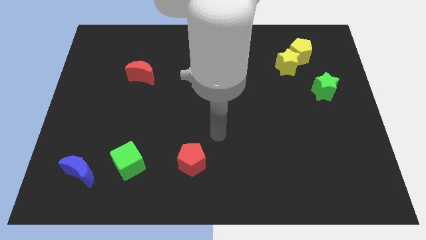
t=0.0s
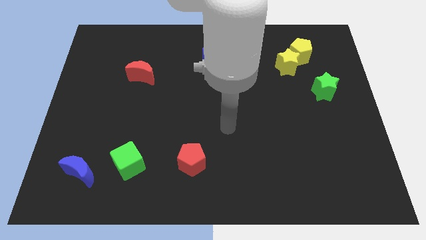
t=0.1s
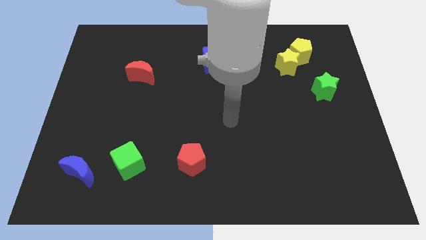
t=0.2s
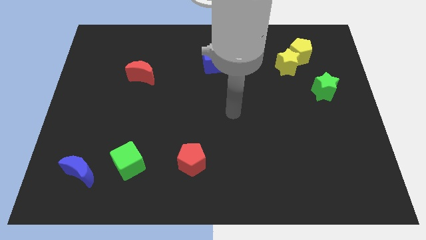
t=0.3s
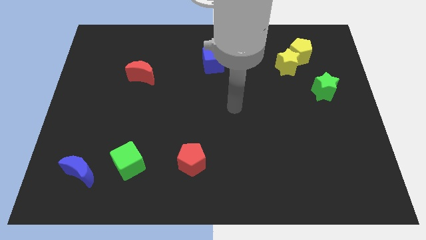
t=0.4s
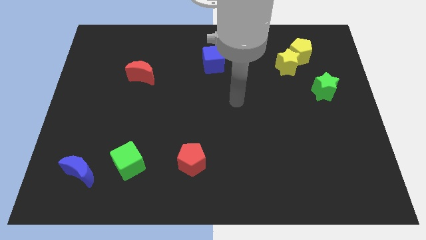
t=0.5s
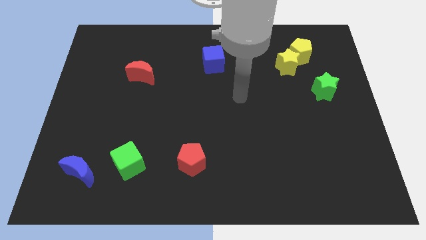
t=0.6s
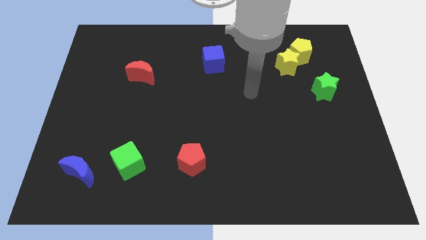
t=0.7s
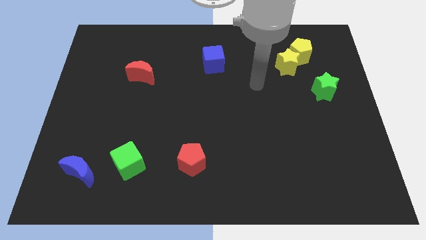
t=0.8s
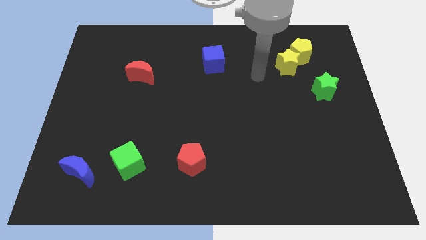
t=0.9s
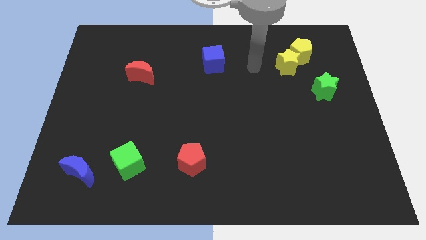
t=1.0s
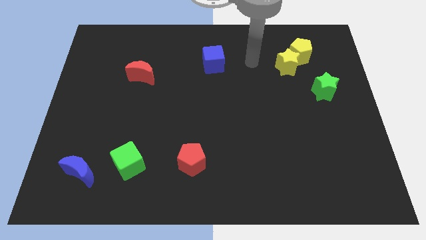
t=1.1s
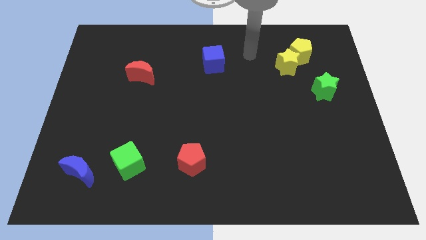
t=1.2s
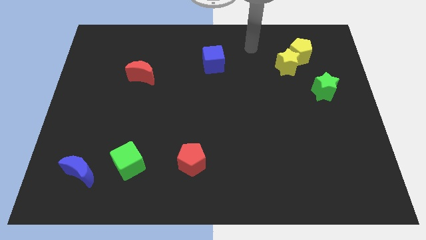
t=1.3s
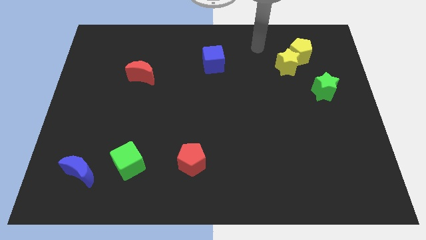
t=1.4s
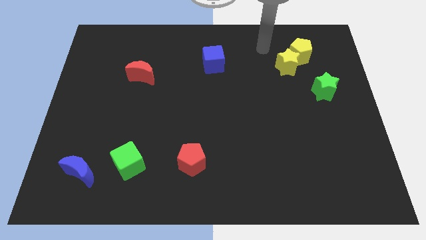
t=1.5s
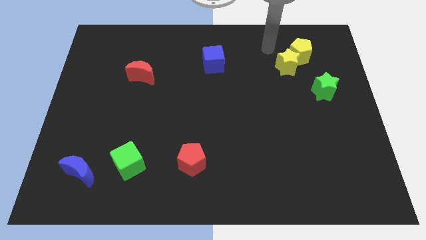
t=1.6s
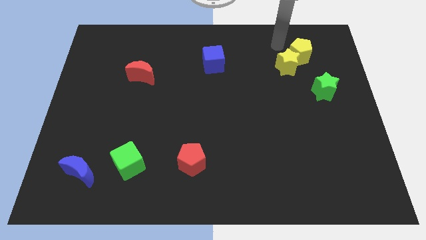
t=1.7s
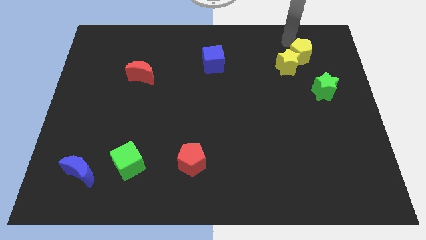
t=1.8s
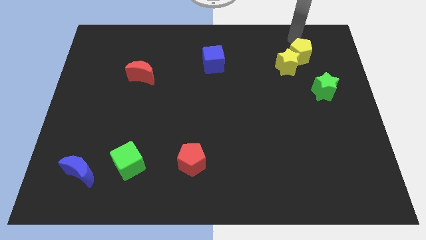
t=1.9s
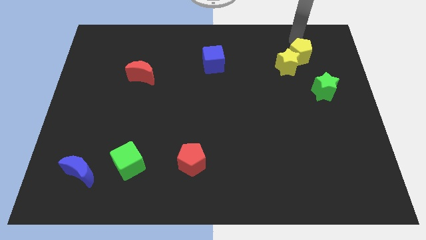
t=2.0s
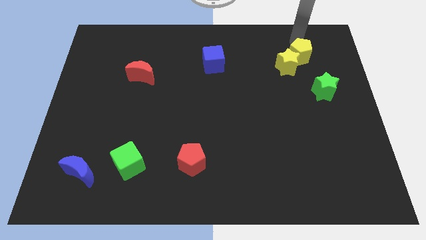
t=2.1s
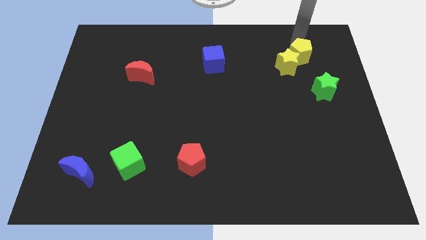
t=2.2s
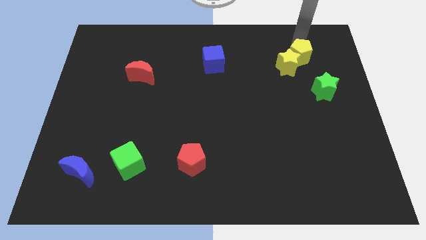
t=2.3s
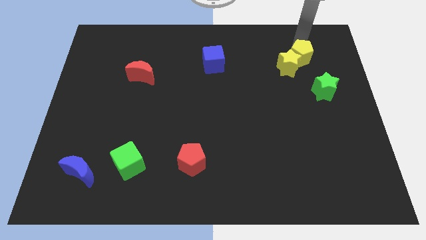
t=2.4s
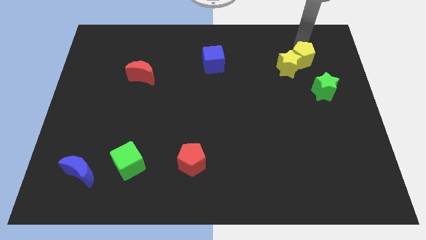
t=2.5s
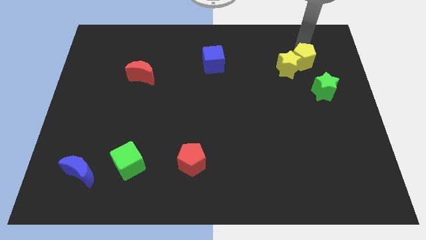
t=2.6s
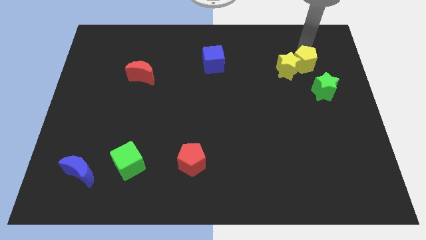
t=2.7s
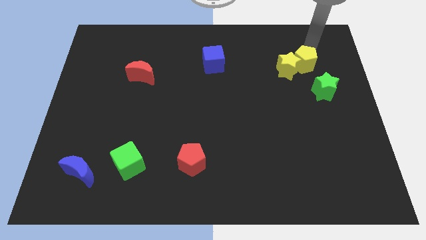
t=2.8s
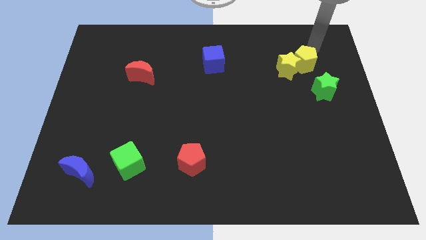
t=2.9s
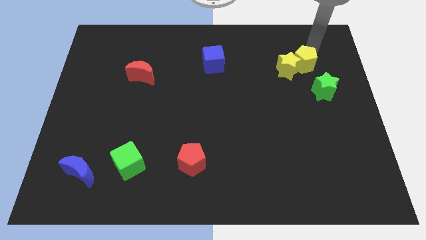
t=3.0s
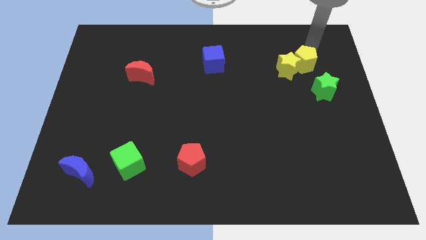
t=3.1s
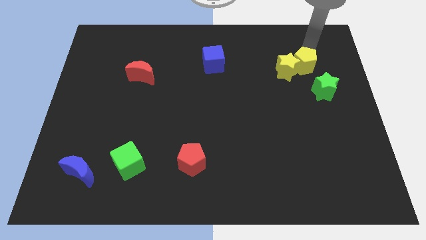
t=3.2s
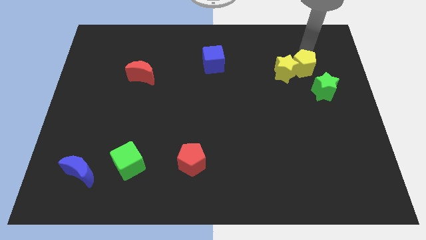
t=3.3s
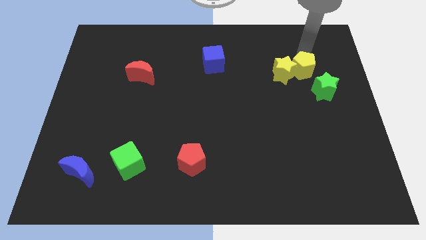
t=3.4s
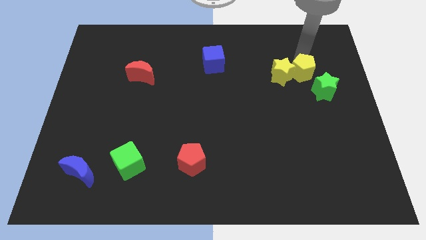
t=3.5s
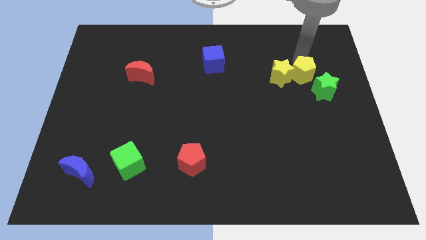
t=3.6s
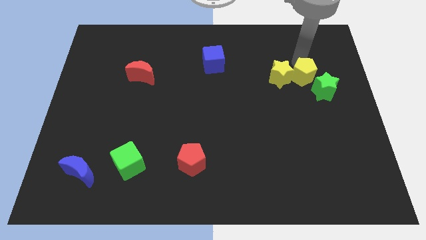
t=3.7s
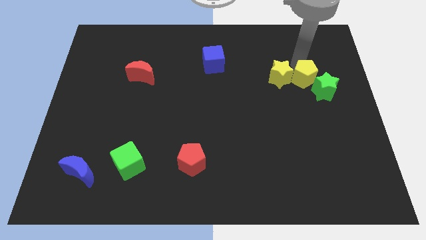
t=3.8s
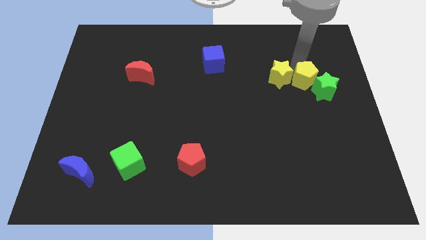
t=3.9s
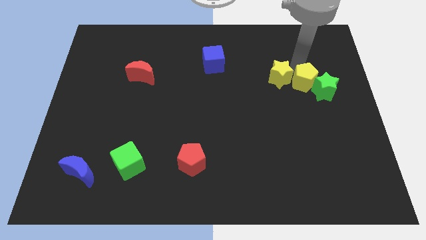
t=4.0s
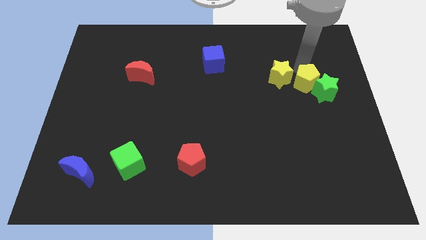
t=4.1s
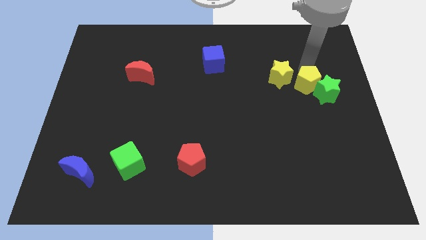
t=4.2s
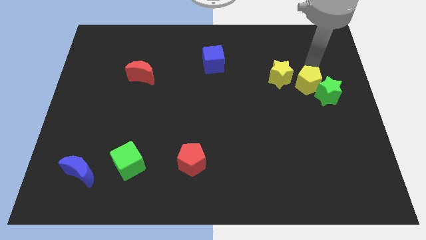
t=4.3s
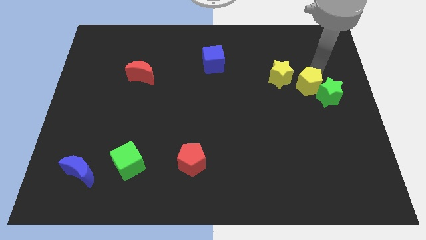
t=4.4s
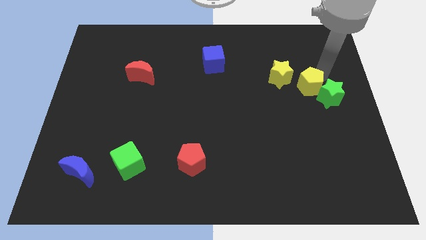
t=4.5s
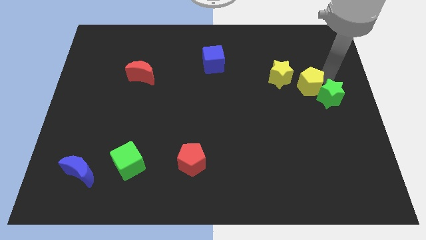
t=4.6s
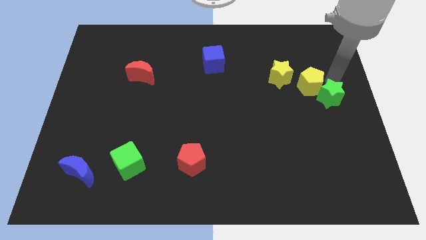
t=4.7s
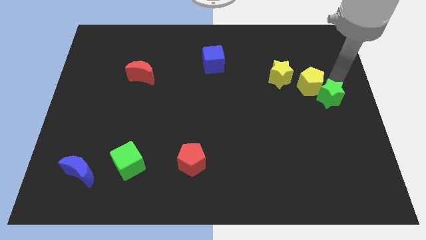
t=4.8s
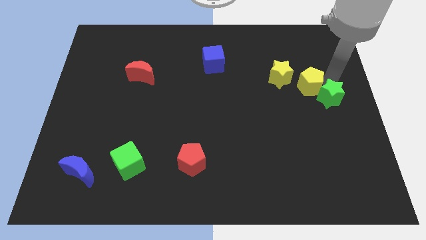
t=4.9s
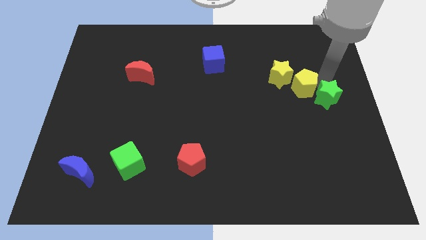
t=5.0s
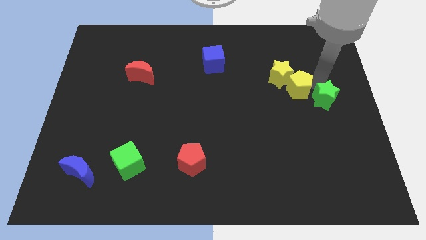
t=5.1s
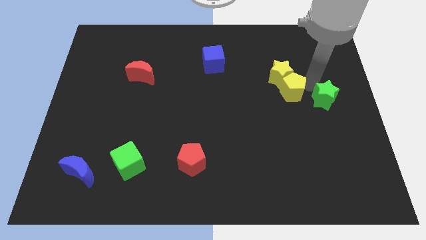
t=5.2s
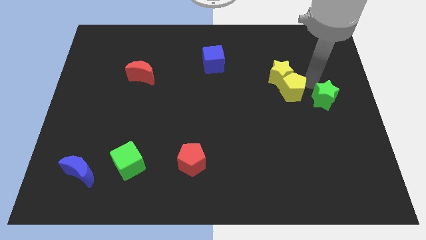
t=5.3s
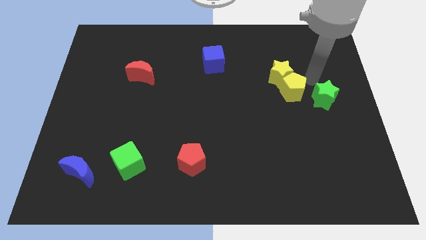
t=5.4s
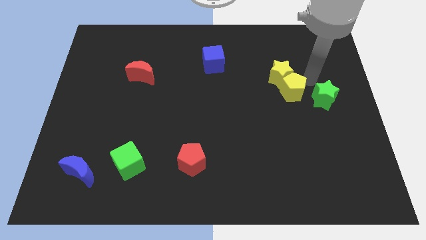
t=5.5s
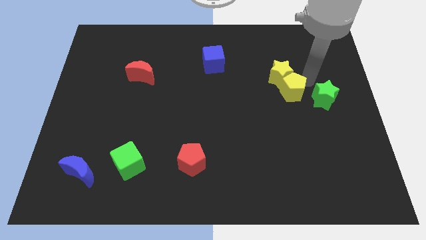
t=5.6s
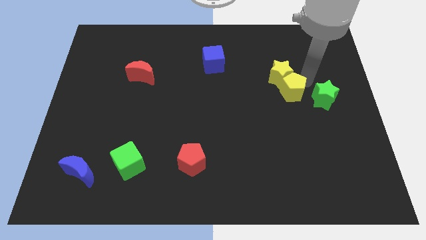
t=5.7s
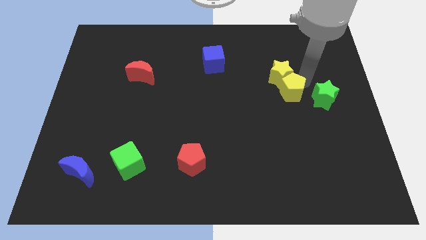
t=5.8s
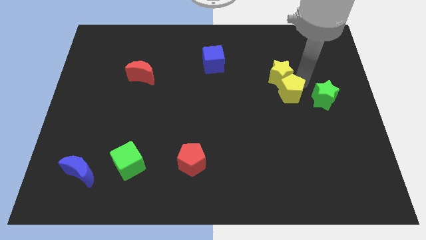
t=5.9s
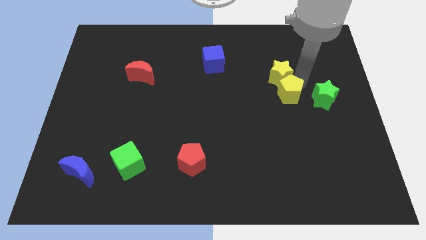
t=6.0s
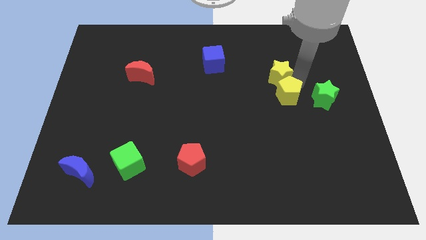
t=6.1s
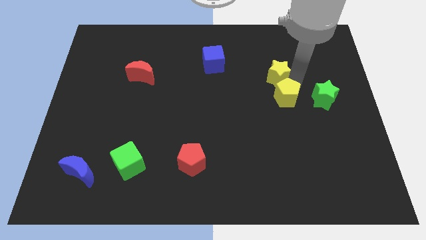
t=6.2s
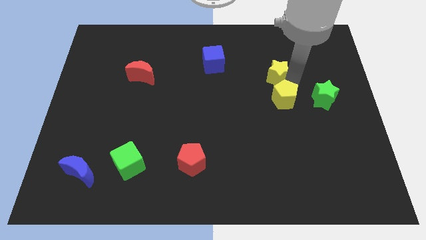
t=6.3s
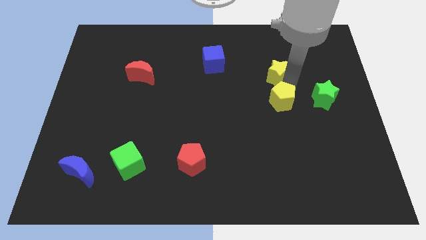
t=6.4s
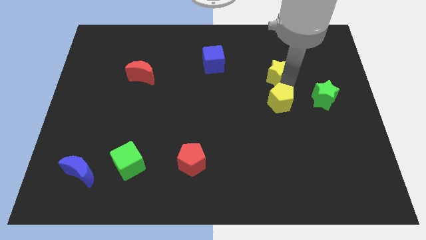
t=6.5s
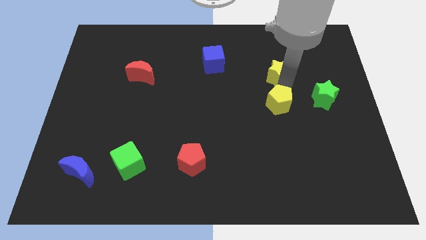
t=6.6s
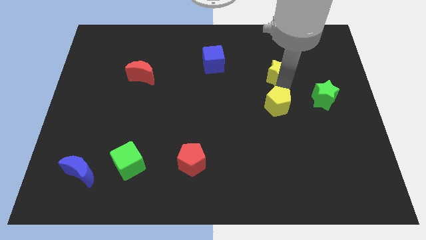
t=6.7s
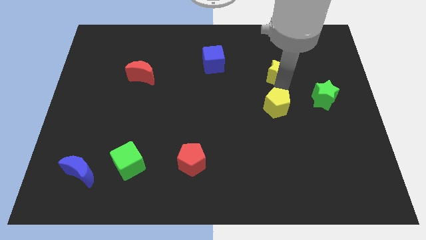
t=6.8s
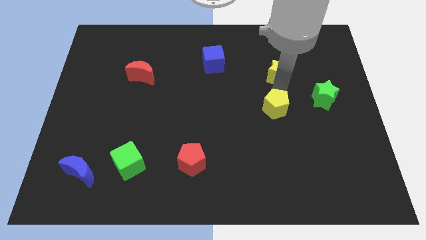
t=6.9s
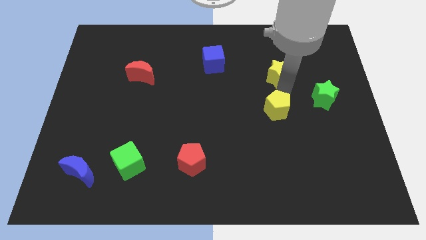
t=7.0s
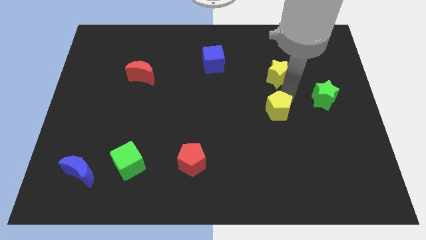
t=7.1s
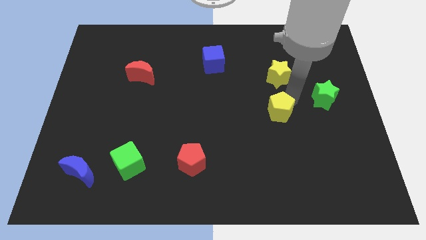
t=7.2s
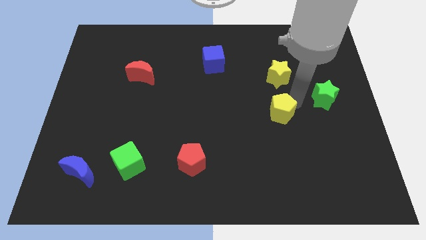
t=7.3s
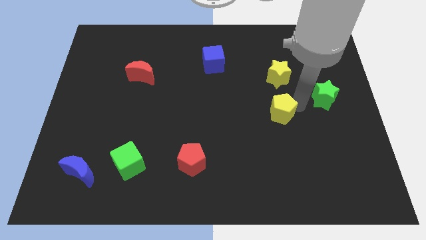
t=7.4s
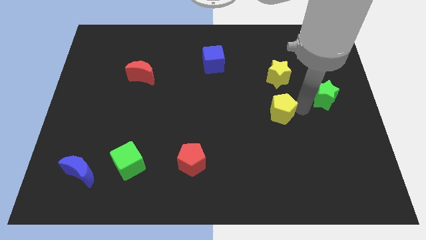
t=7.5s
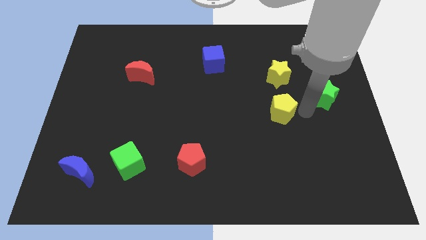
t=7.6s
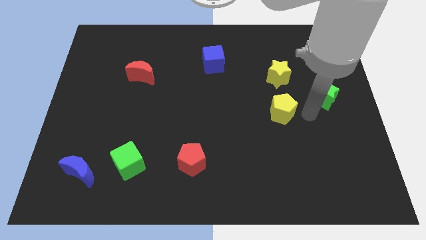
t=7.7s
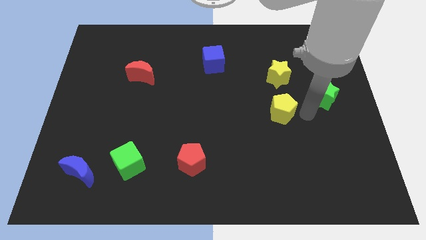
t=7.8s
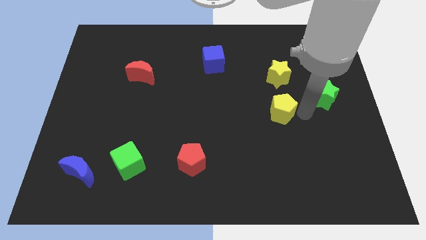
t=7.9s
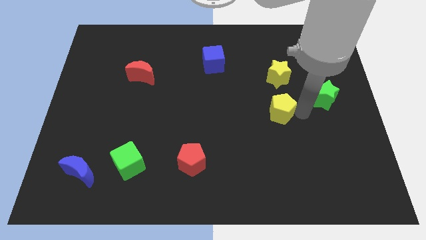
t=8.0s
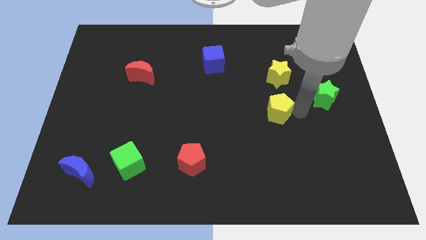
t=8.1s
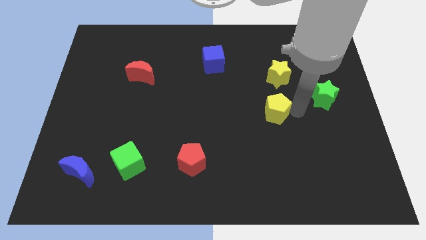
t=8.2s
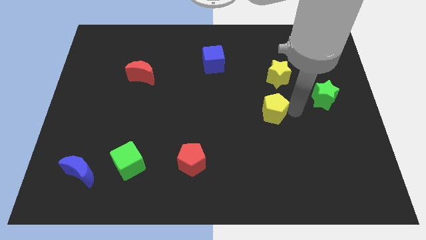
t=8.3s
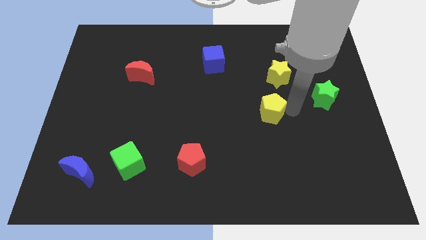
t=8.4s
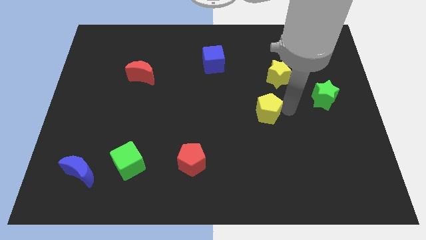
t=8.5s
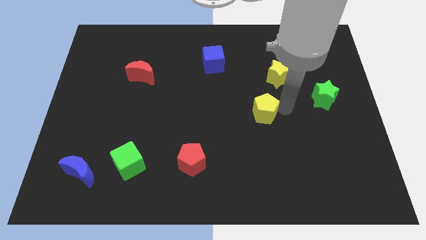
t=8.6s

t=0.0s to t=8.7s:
move the yellow pentagon down and left diagonally
